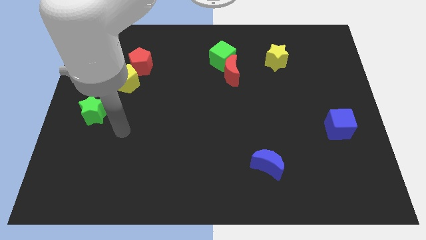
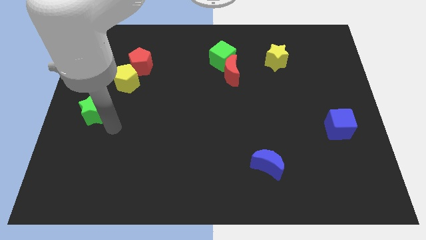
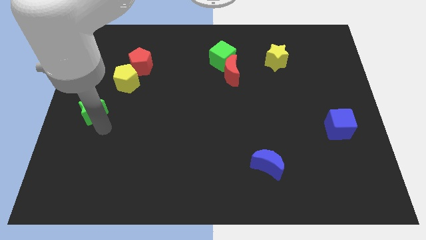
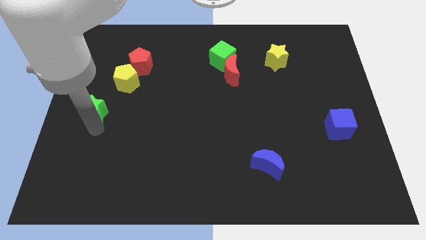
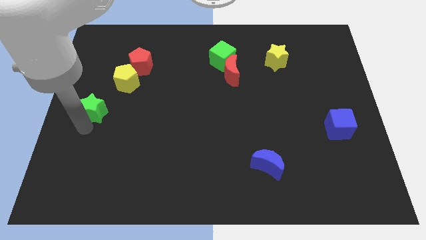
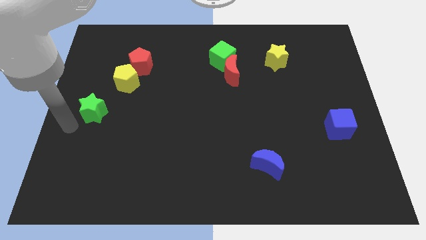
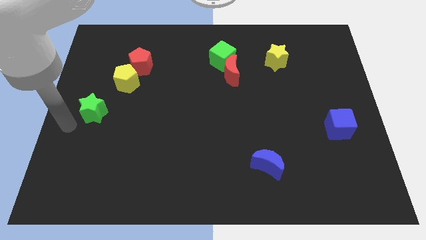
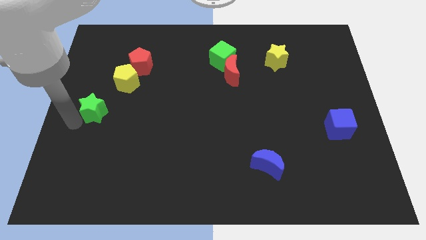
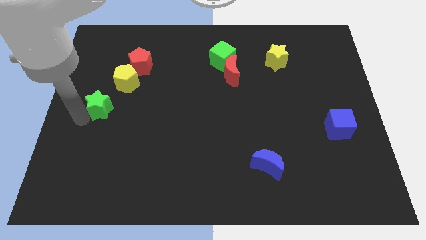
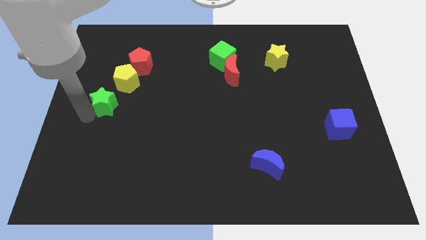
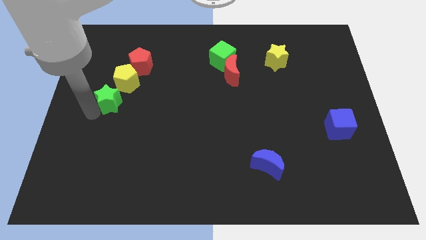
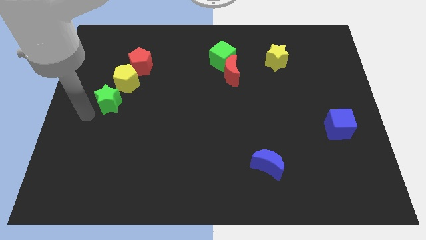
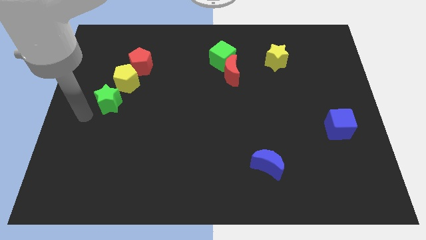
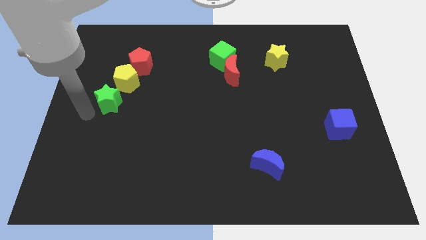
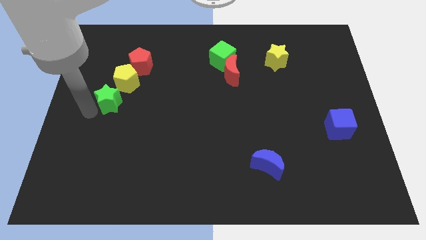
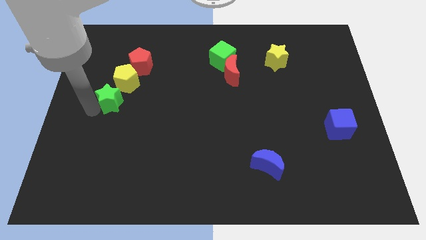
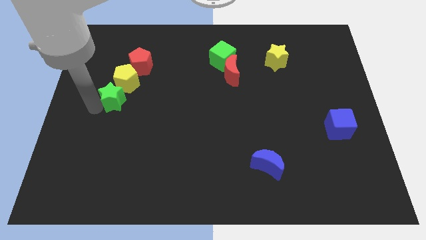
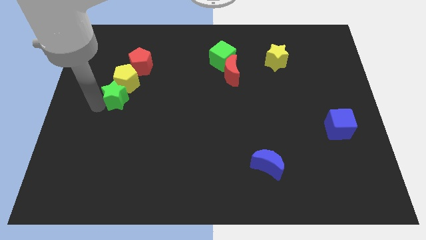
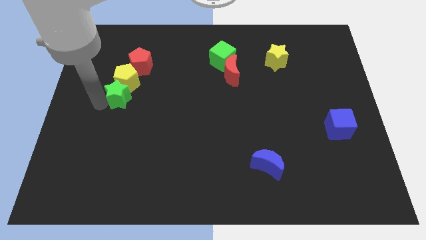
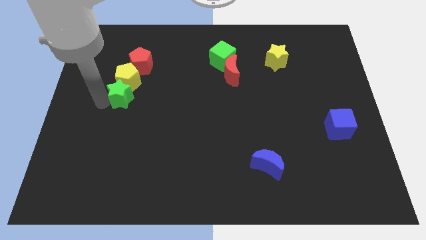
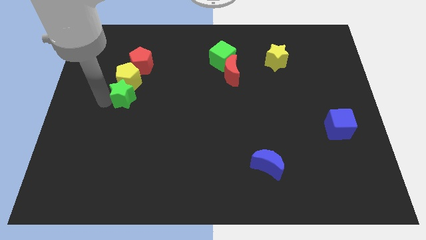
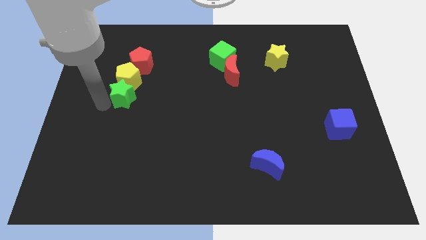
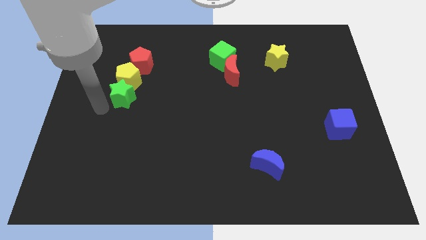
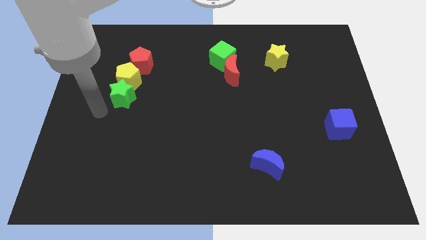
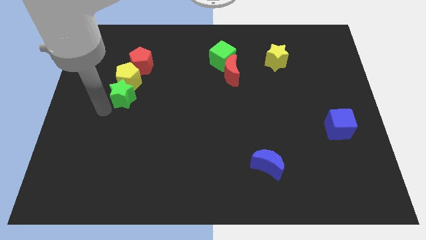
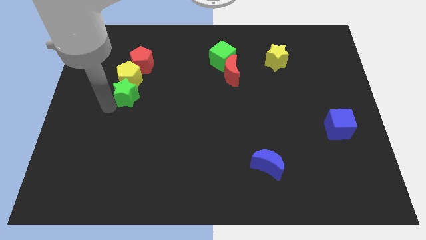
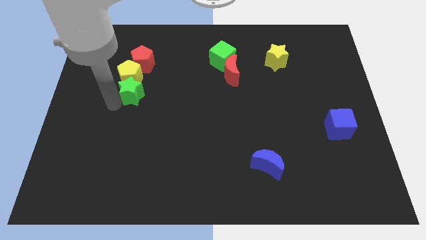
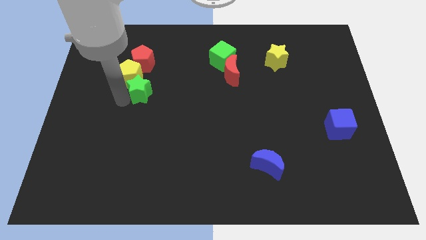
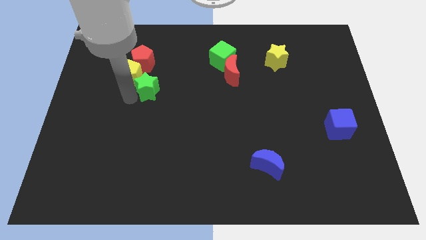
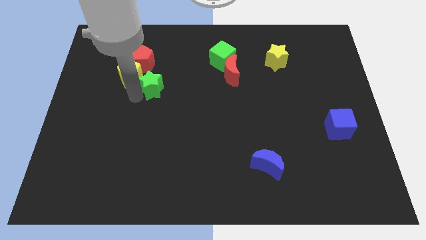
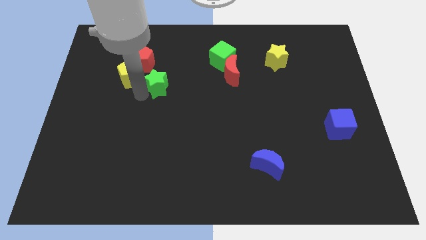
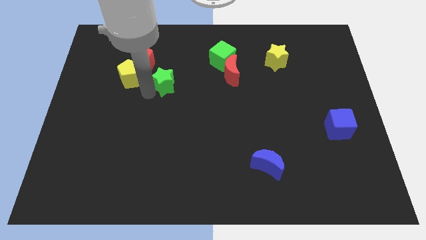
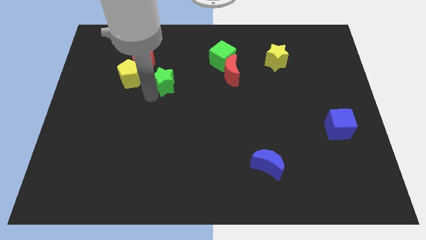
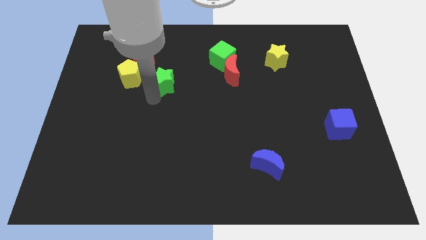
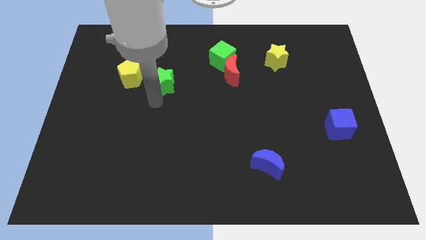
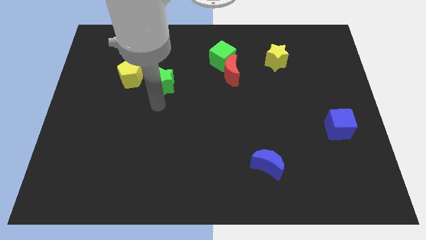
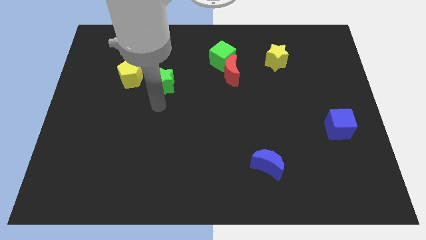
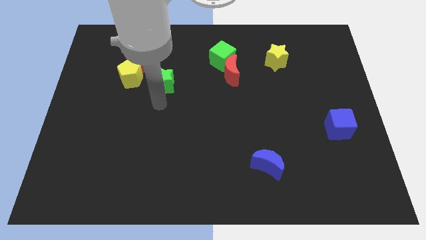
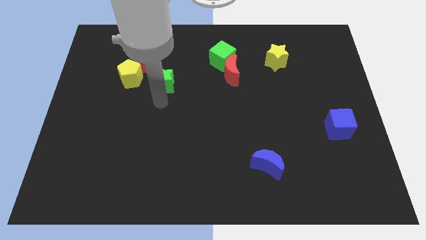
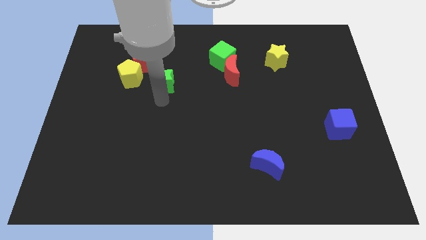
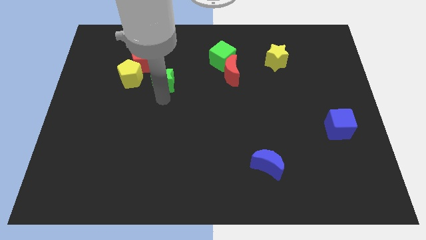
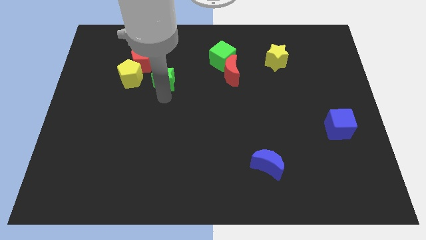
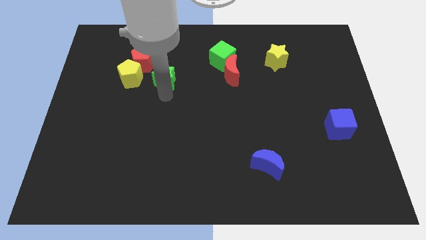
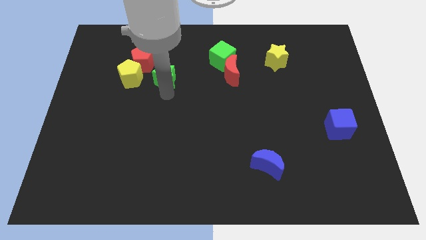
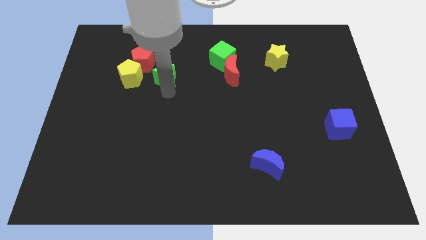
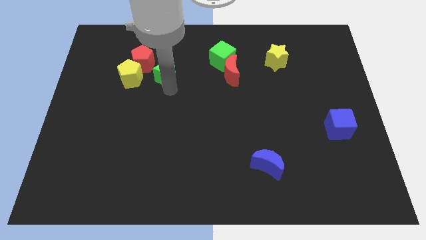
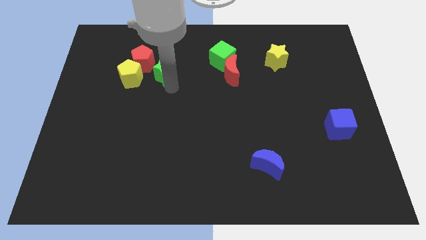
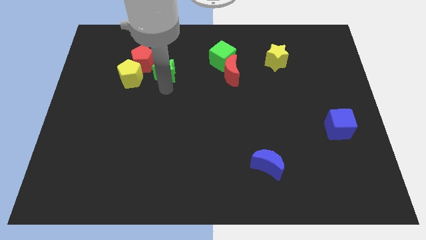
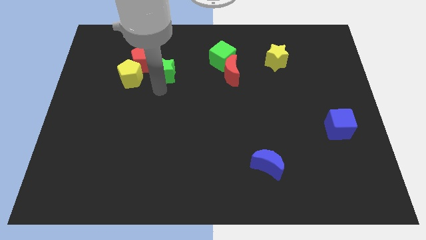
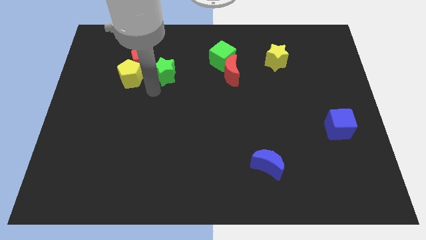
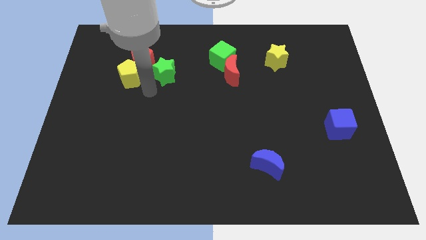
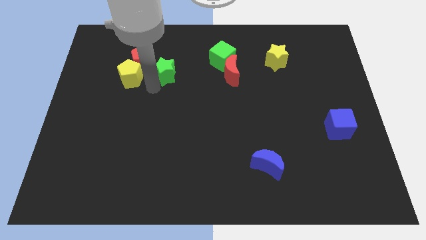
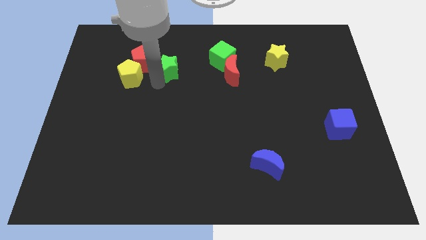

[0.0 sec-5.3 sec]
move the green star to the left side of the green cube

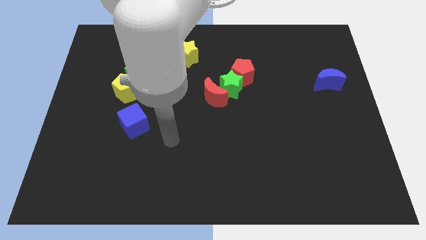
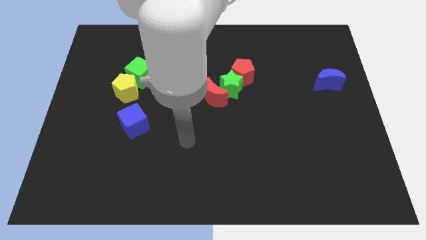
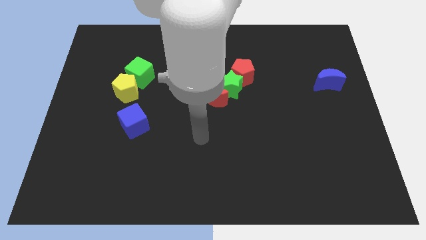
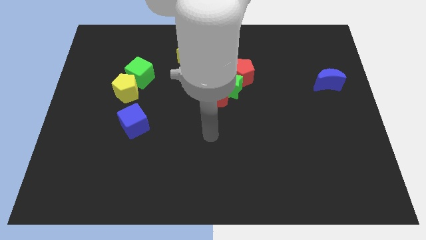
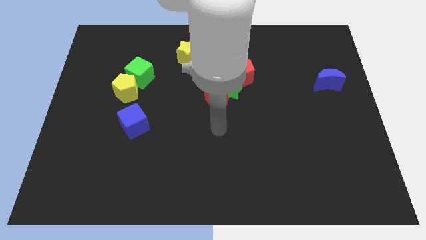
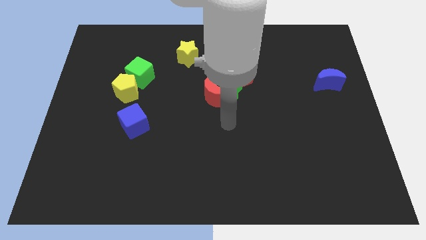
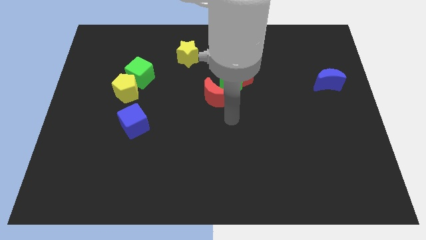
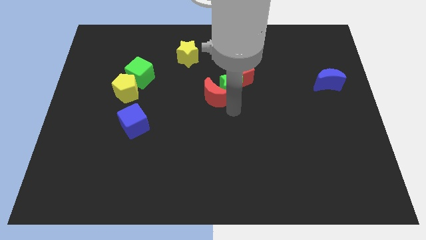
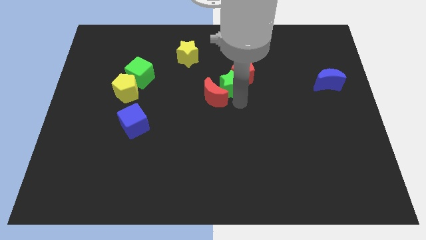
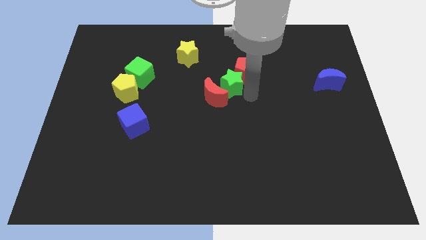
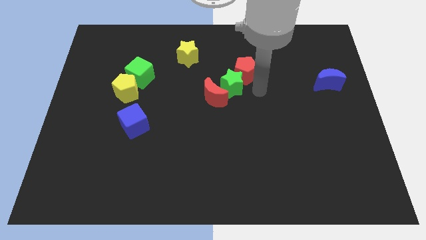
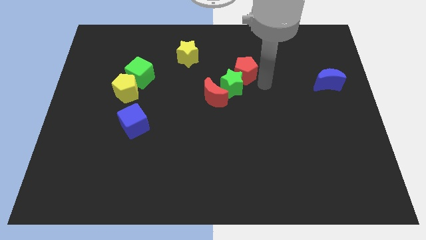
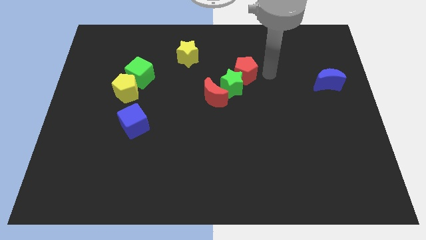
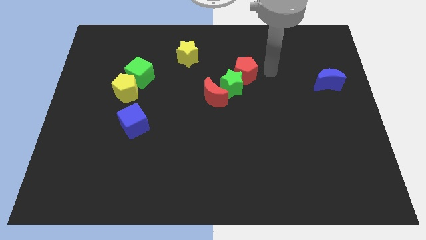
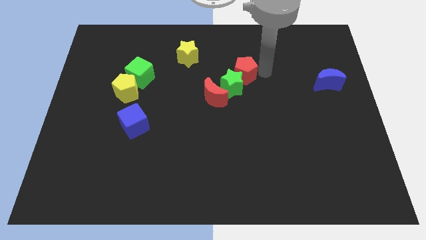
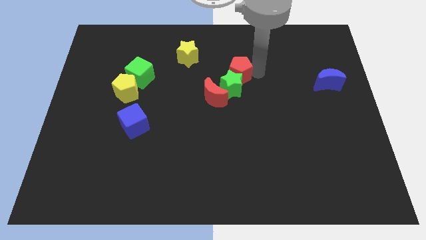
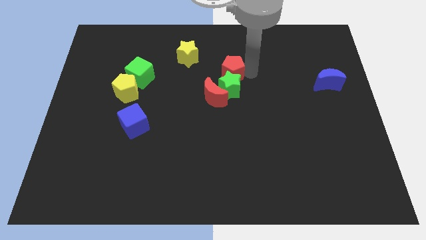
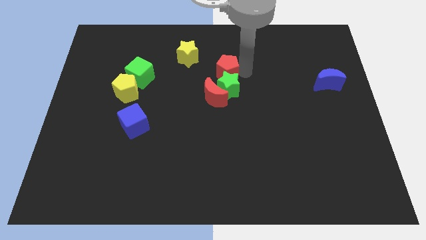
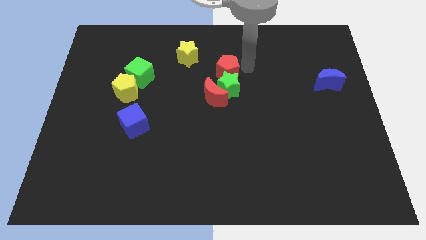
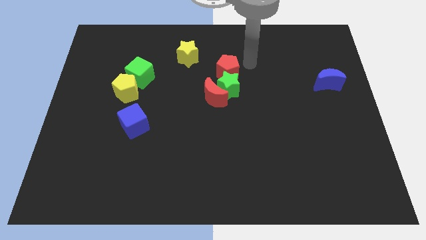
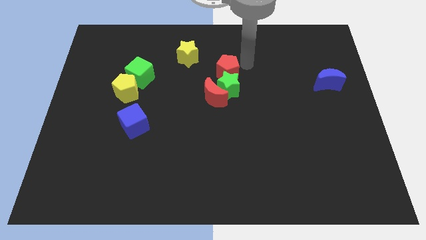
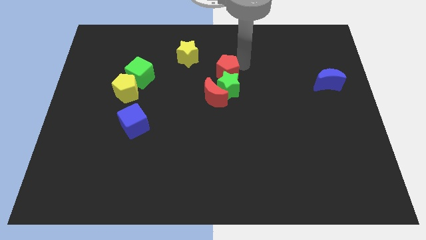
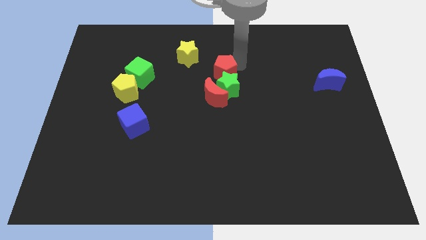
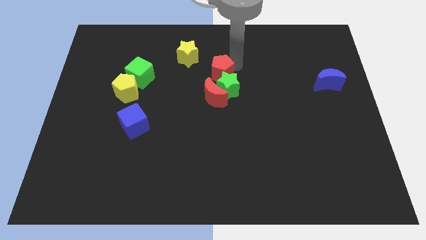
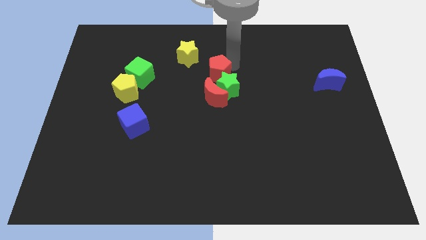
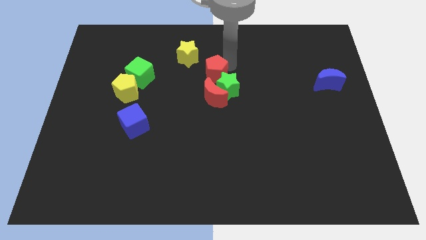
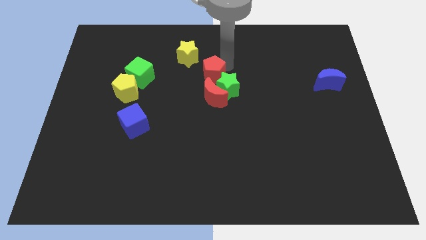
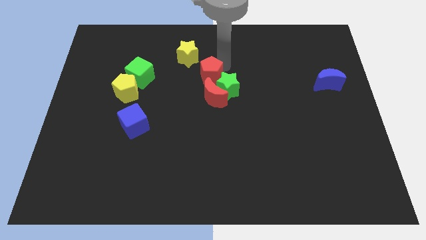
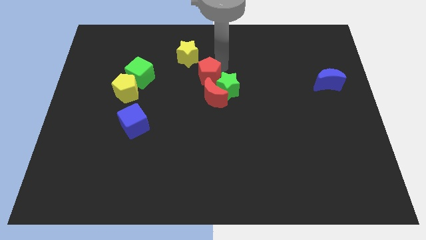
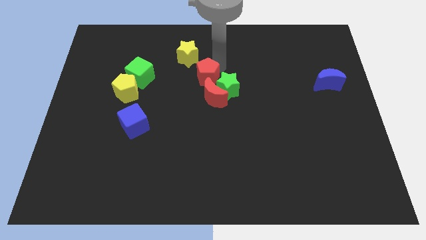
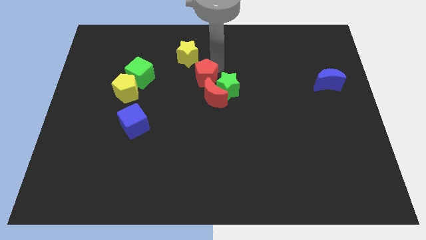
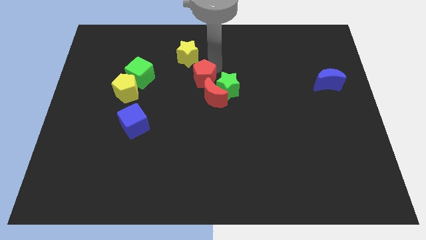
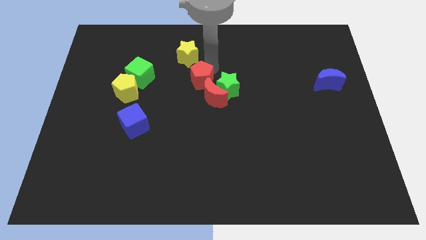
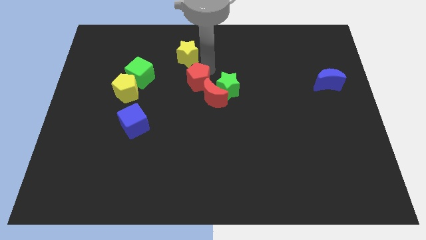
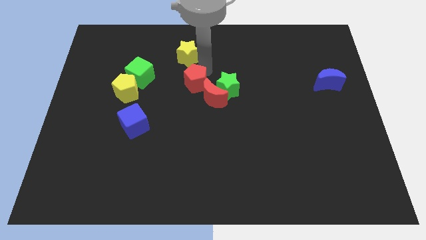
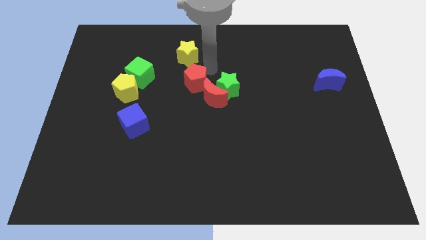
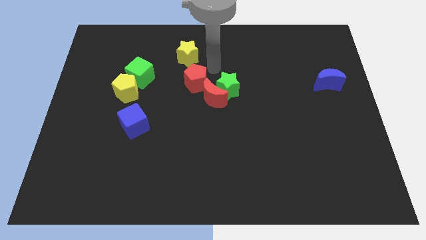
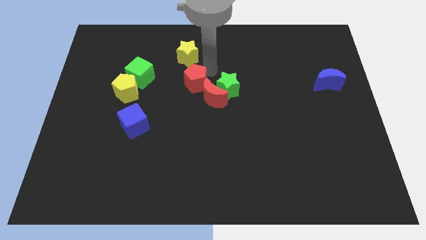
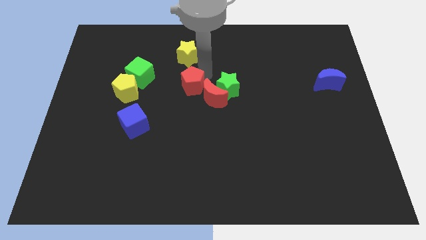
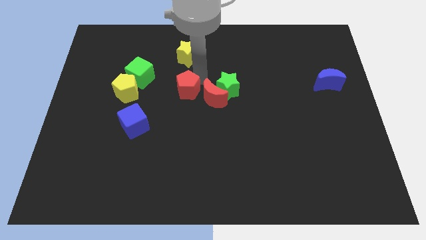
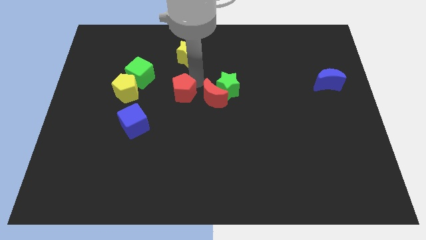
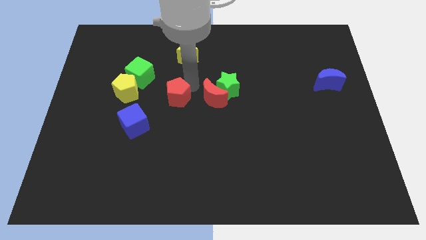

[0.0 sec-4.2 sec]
slide the red pentagon diagonally up and to the right of the blue cube
